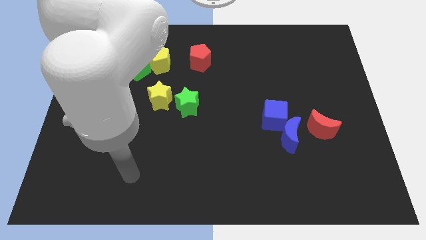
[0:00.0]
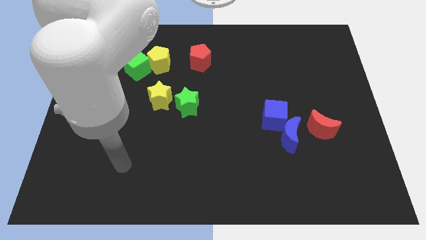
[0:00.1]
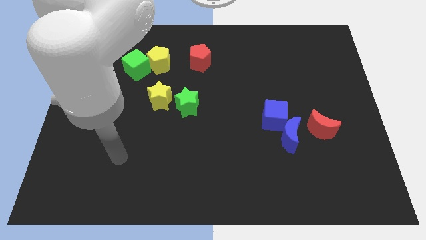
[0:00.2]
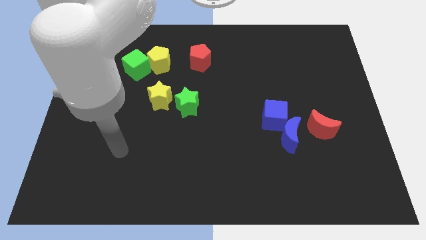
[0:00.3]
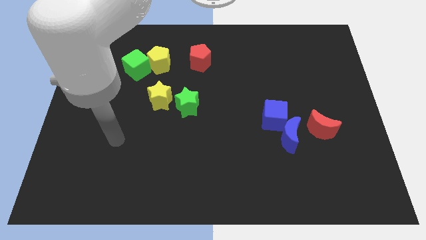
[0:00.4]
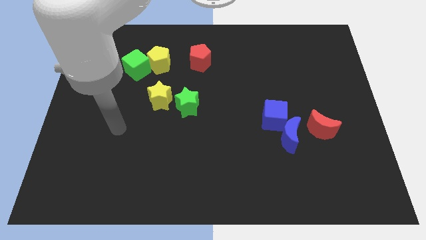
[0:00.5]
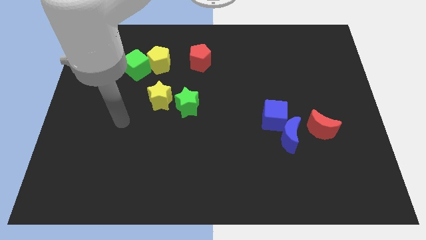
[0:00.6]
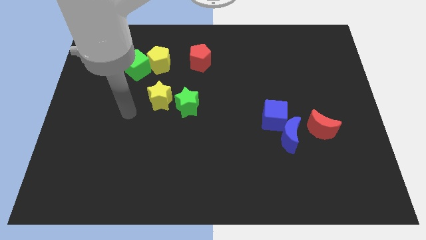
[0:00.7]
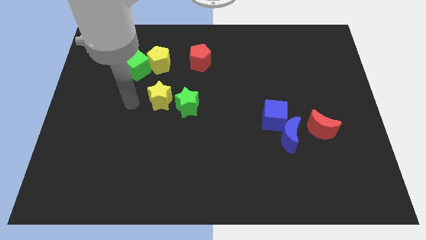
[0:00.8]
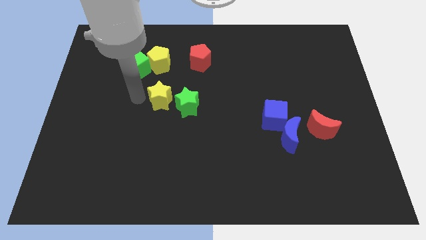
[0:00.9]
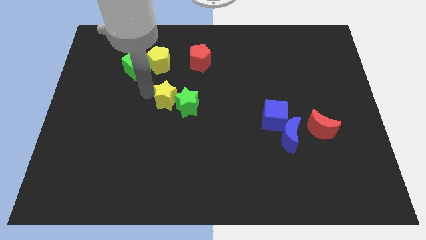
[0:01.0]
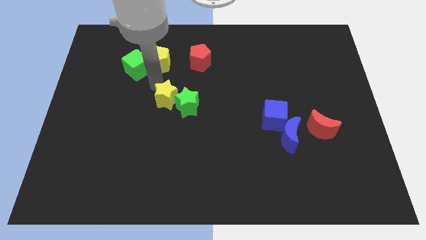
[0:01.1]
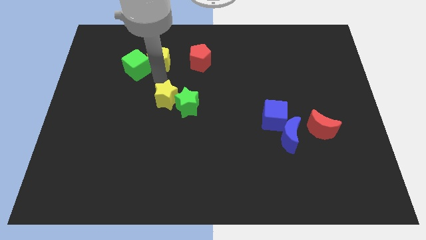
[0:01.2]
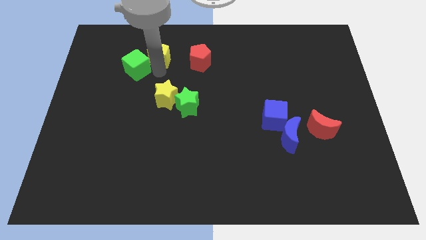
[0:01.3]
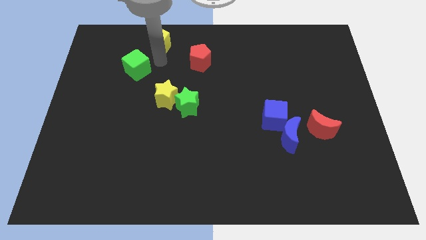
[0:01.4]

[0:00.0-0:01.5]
separate the green cube from the yellow pentagon

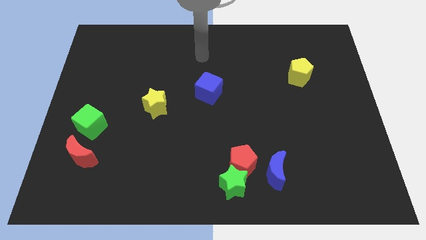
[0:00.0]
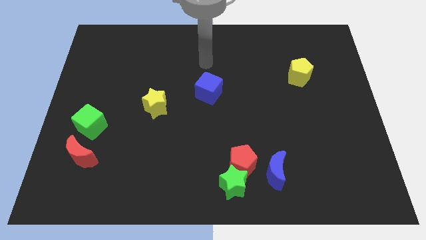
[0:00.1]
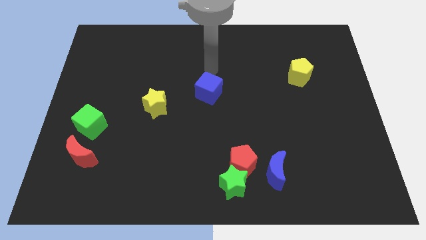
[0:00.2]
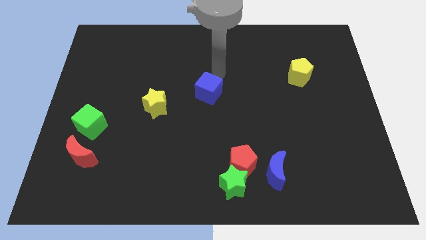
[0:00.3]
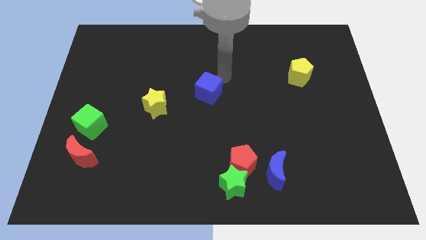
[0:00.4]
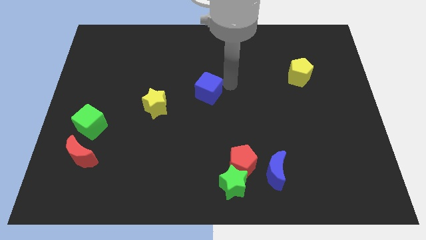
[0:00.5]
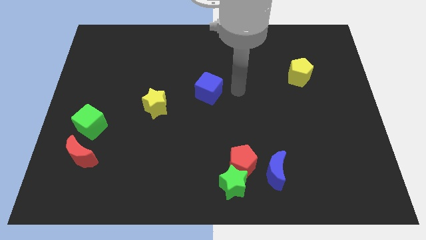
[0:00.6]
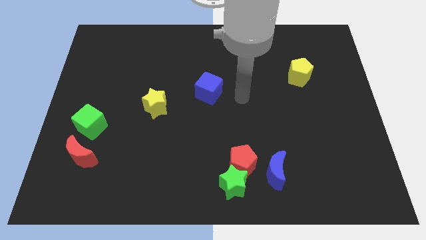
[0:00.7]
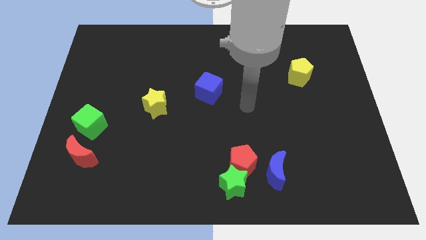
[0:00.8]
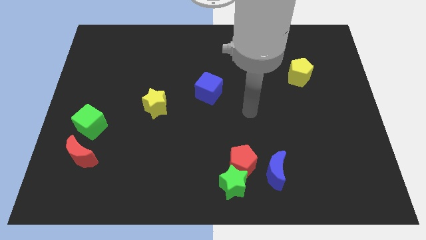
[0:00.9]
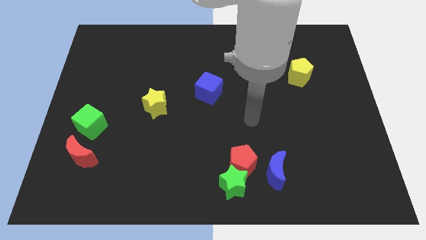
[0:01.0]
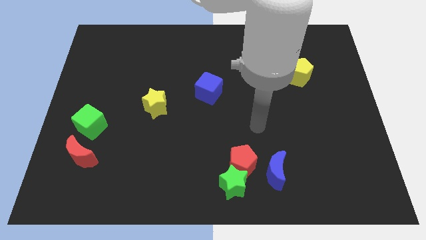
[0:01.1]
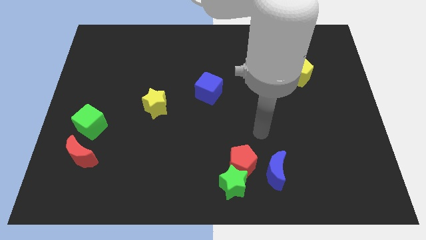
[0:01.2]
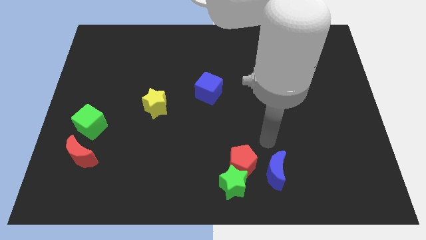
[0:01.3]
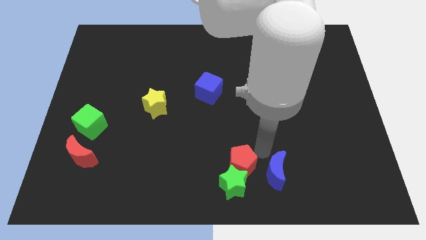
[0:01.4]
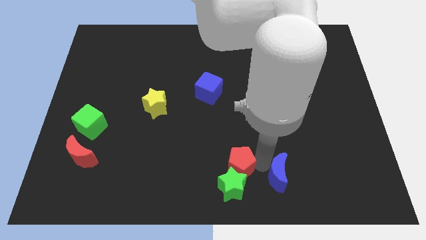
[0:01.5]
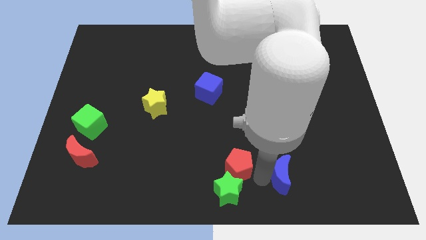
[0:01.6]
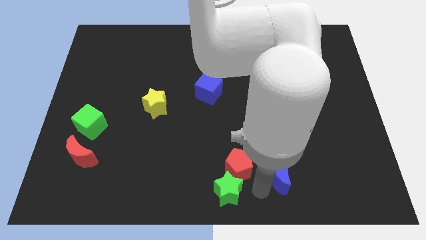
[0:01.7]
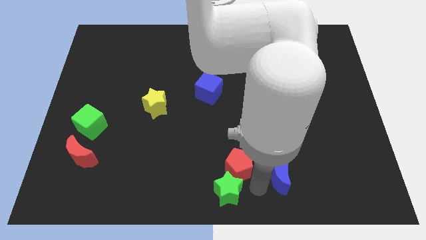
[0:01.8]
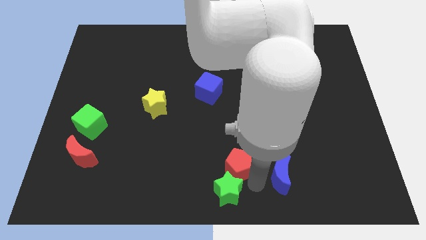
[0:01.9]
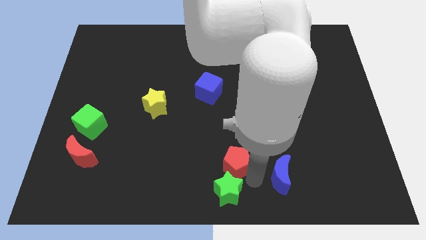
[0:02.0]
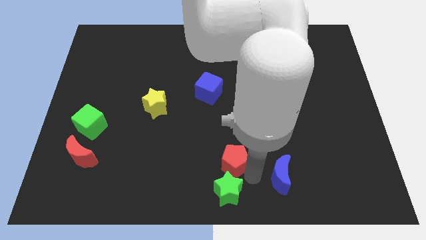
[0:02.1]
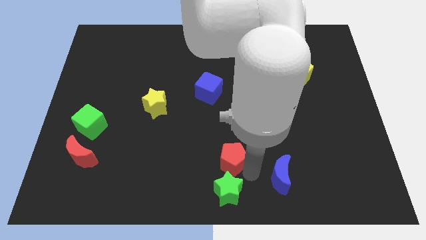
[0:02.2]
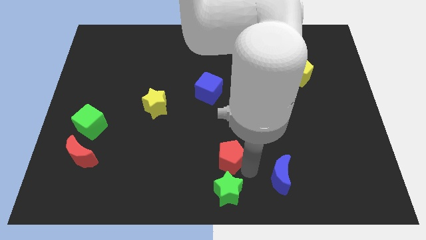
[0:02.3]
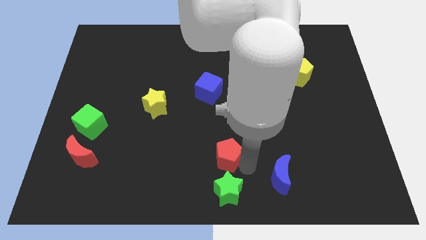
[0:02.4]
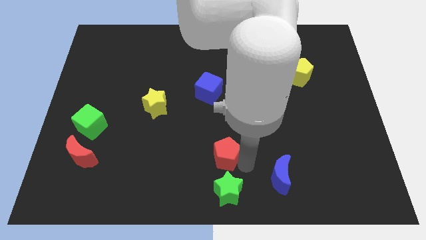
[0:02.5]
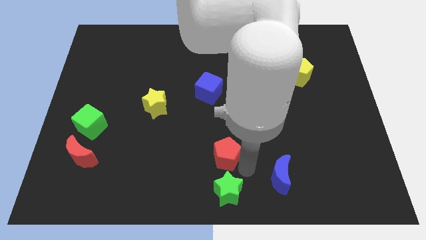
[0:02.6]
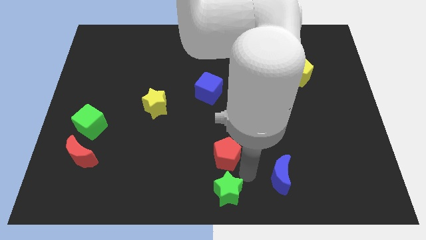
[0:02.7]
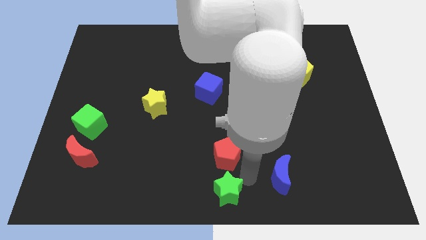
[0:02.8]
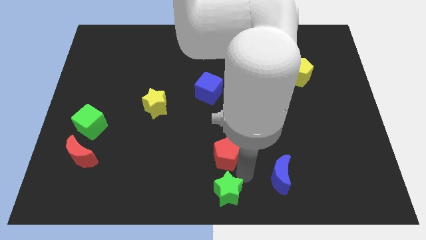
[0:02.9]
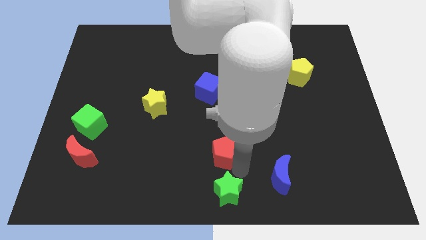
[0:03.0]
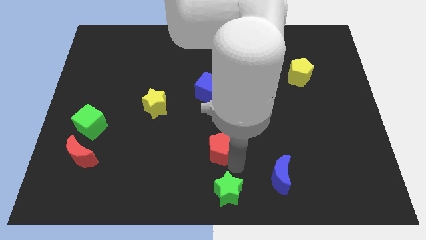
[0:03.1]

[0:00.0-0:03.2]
separate the red pentagon from the green star and blue moon

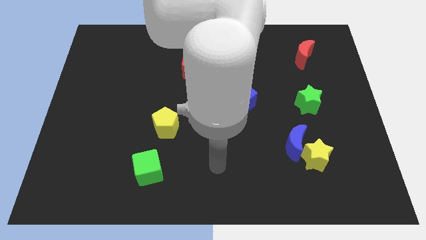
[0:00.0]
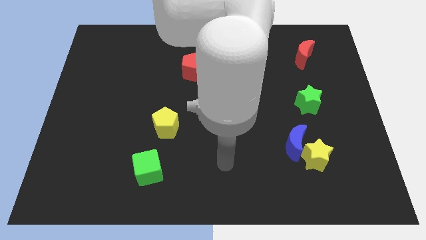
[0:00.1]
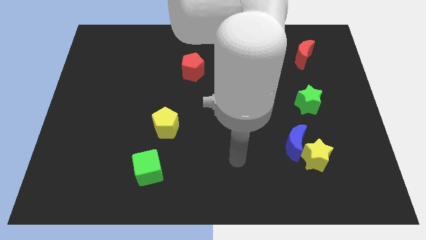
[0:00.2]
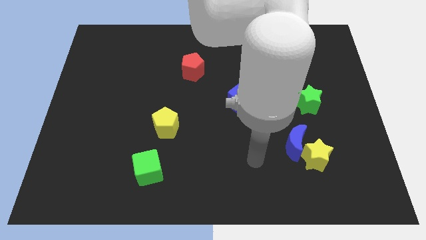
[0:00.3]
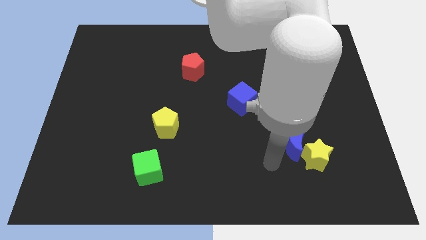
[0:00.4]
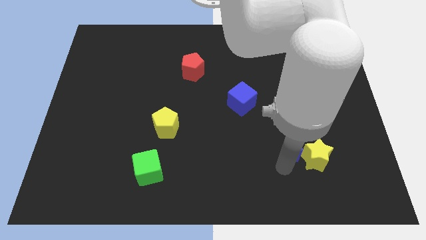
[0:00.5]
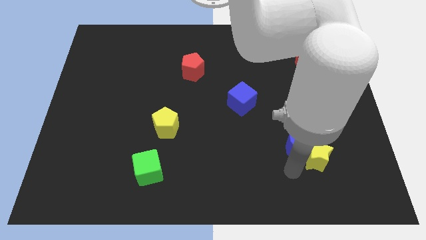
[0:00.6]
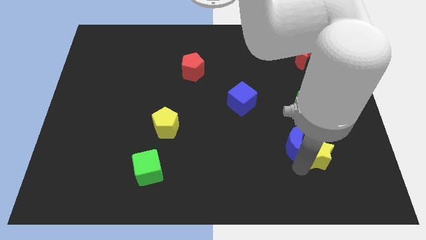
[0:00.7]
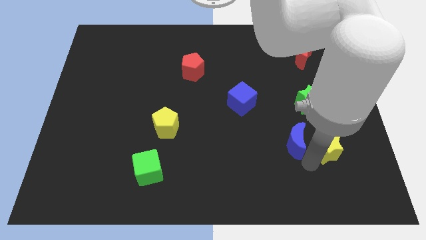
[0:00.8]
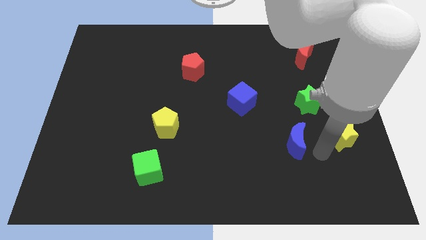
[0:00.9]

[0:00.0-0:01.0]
separate the blue moon from the yellow star

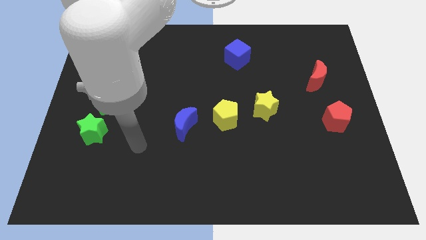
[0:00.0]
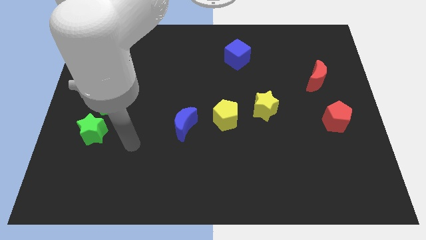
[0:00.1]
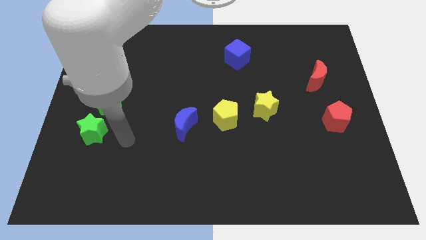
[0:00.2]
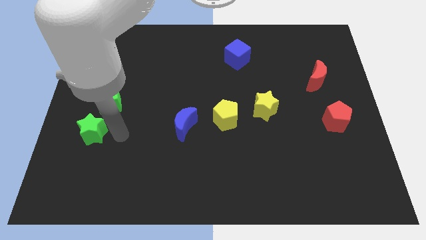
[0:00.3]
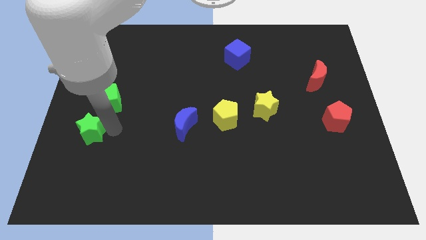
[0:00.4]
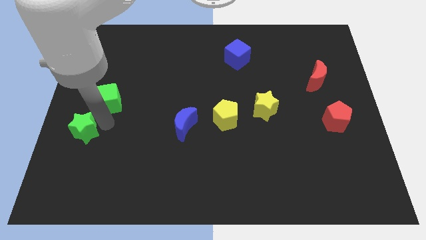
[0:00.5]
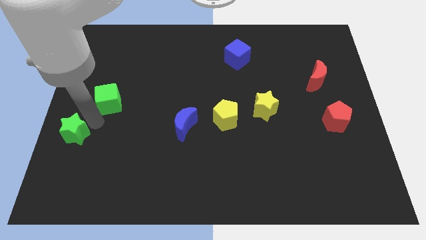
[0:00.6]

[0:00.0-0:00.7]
pull the green cube apart from the green star

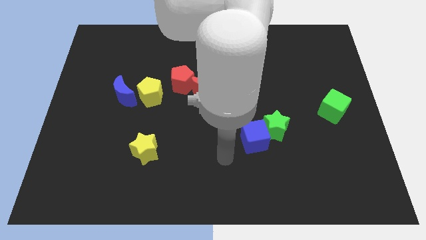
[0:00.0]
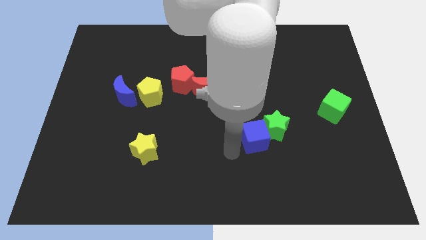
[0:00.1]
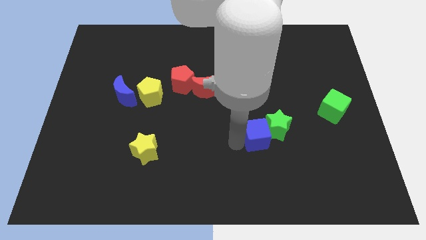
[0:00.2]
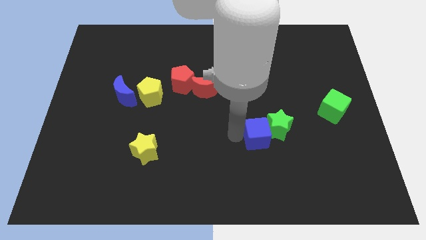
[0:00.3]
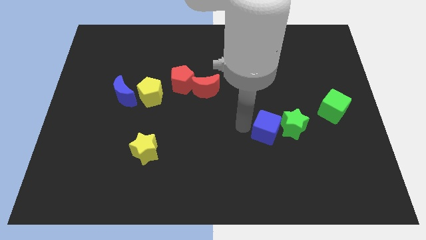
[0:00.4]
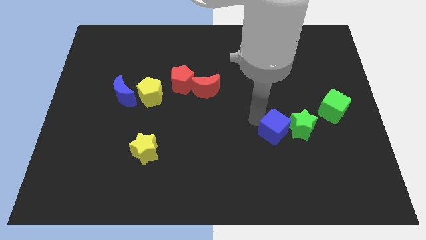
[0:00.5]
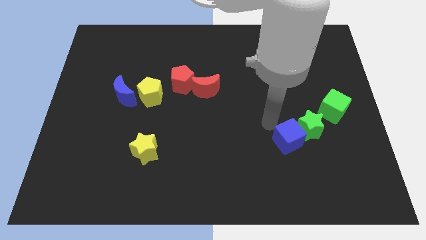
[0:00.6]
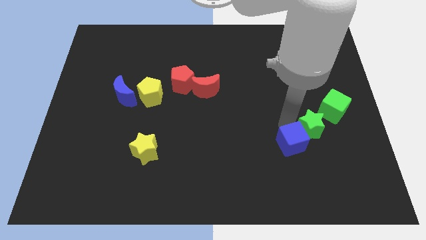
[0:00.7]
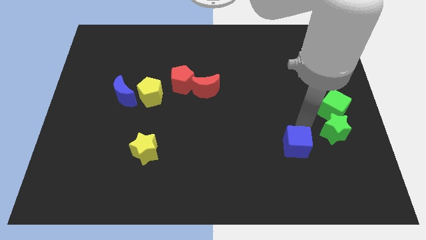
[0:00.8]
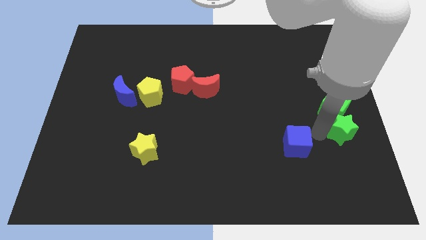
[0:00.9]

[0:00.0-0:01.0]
separate the blue cube from the green star

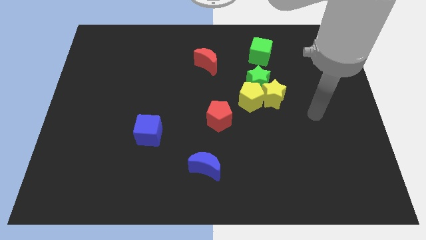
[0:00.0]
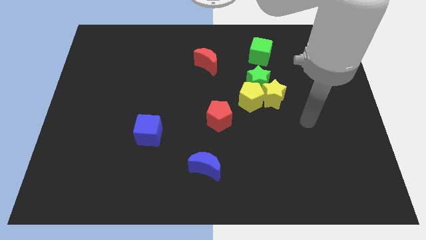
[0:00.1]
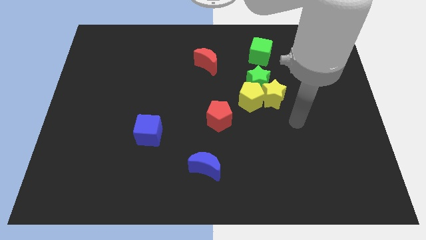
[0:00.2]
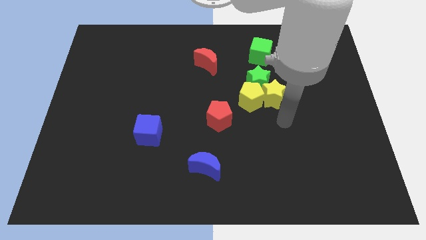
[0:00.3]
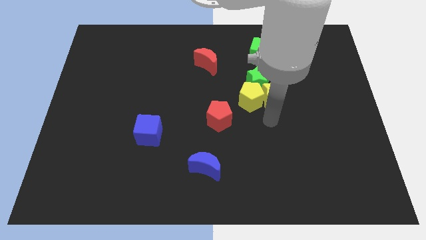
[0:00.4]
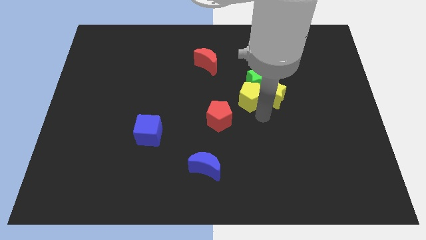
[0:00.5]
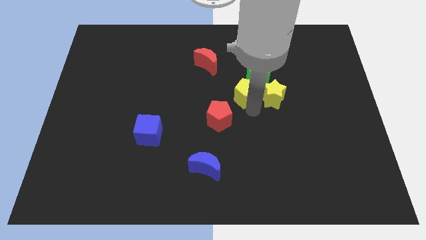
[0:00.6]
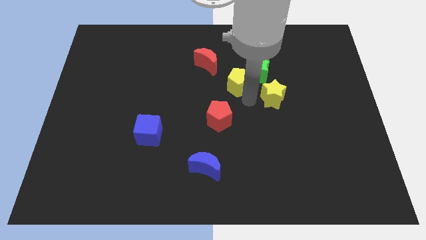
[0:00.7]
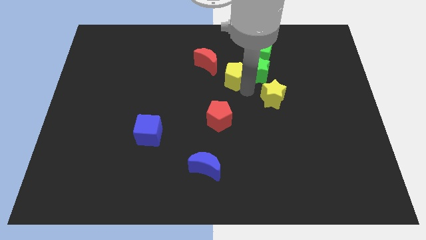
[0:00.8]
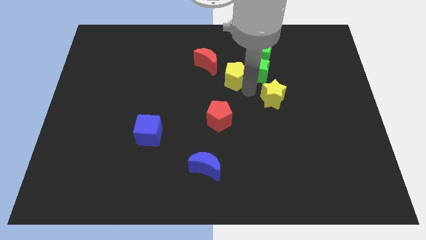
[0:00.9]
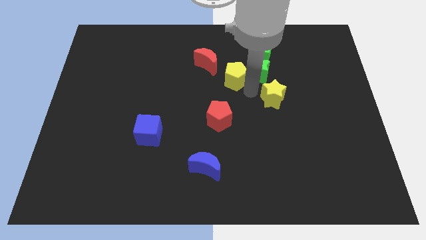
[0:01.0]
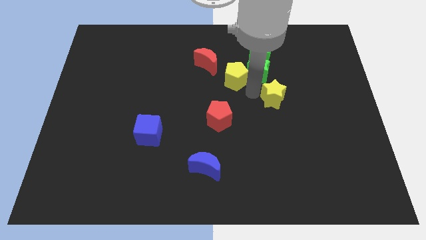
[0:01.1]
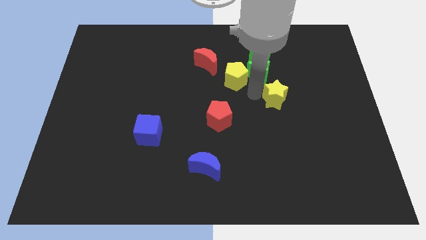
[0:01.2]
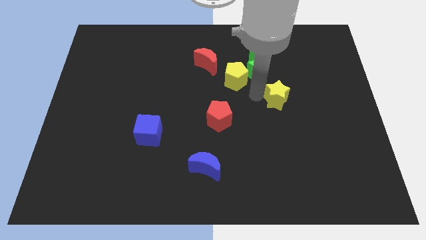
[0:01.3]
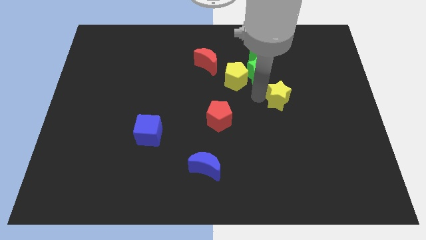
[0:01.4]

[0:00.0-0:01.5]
move the yellow star away from the yellow pentagon and green star

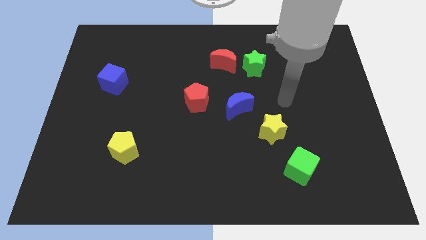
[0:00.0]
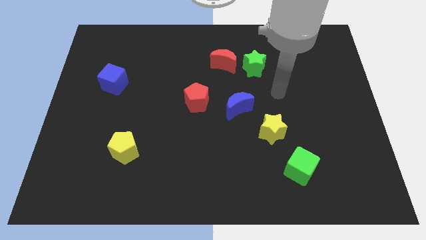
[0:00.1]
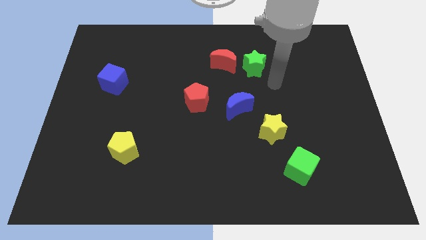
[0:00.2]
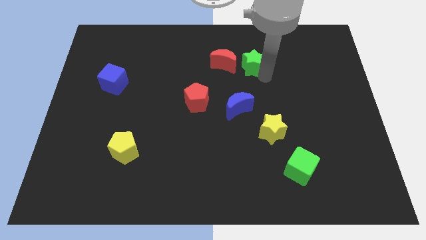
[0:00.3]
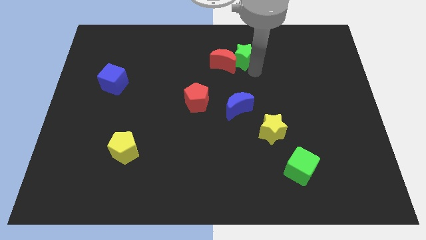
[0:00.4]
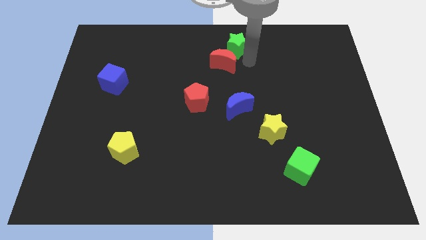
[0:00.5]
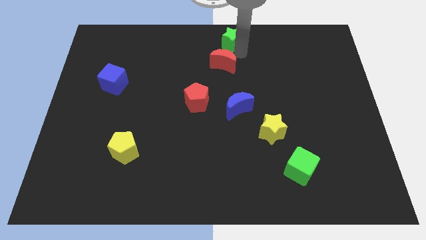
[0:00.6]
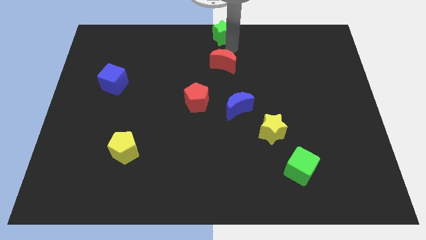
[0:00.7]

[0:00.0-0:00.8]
separate the red moon from the green star
